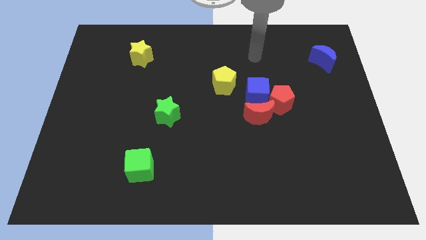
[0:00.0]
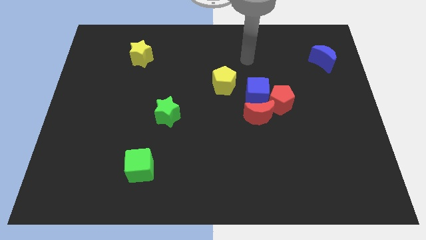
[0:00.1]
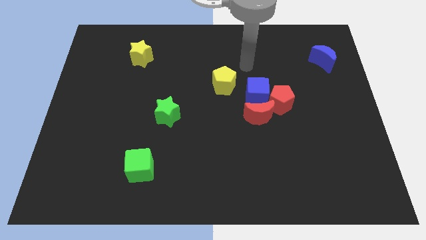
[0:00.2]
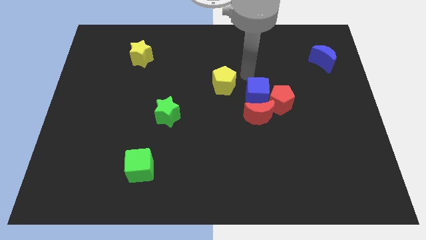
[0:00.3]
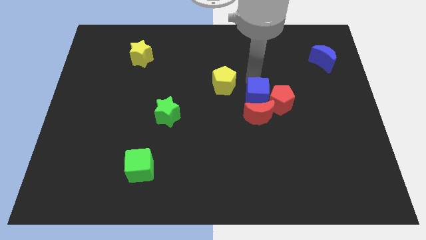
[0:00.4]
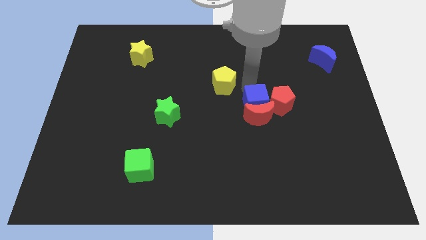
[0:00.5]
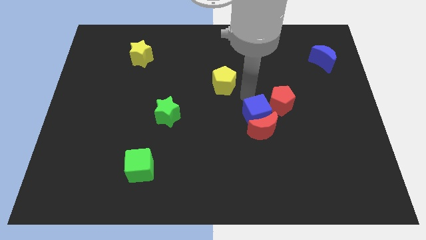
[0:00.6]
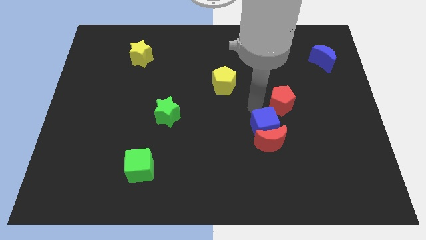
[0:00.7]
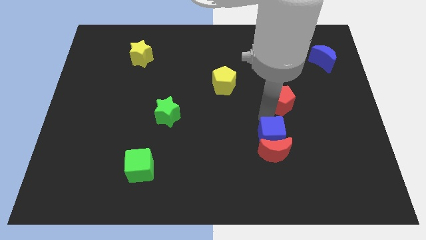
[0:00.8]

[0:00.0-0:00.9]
pull the red pentagon apart from the blue cube and red moon

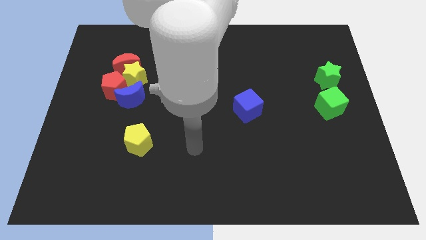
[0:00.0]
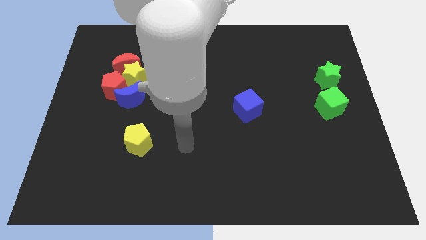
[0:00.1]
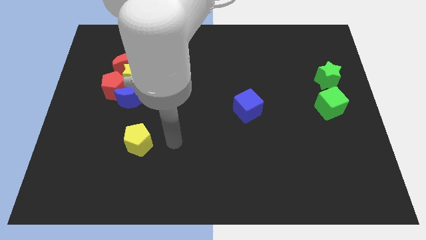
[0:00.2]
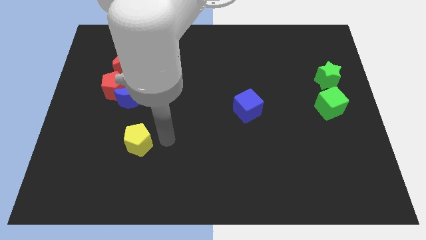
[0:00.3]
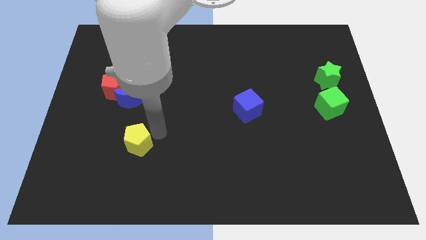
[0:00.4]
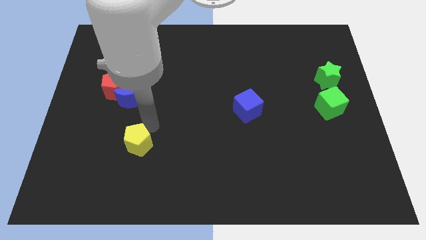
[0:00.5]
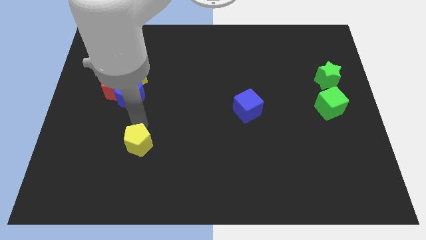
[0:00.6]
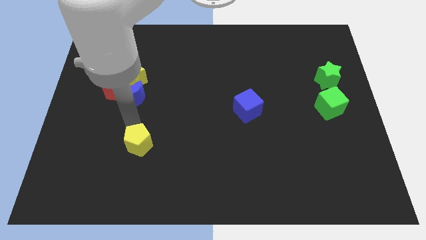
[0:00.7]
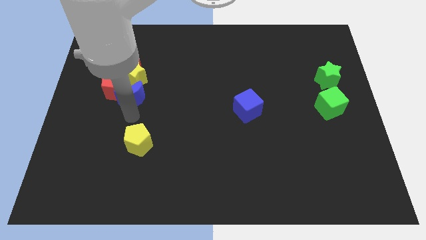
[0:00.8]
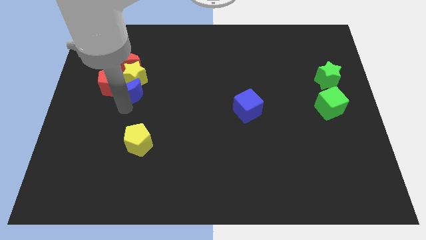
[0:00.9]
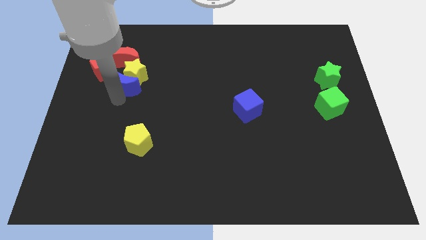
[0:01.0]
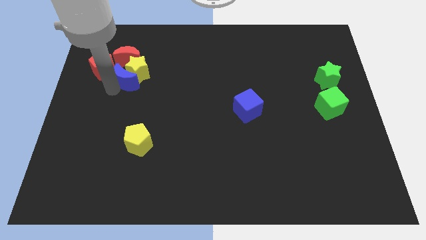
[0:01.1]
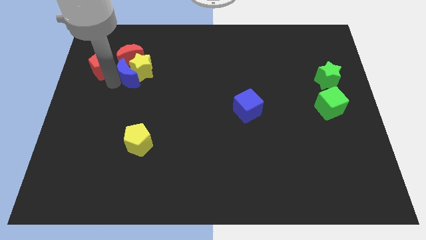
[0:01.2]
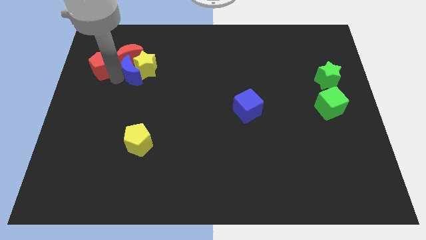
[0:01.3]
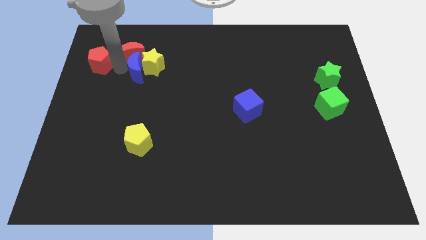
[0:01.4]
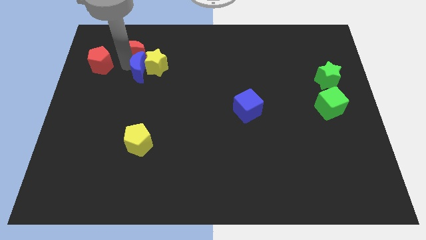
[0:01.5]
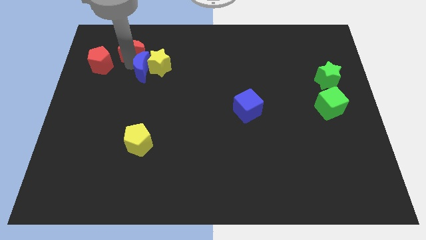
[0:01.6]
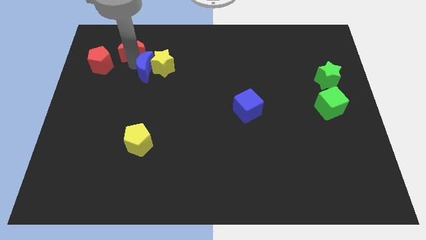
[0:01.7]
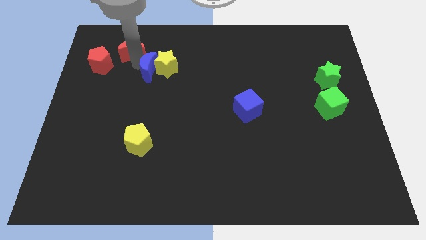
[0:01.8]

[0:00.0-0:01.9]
pull the yellow star apart from the red moon, red pentagon, and blue moon

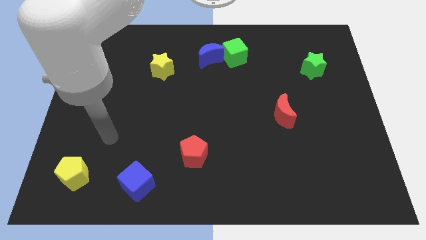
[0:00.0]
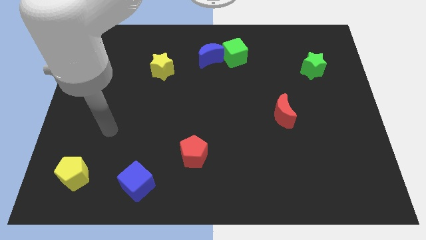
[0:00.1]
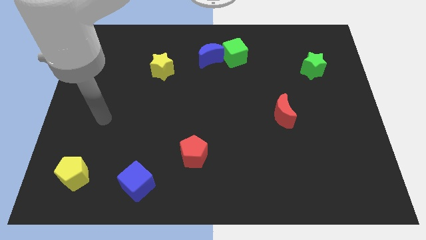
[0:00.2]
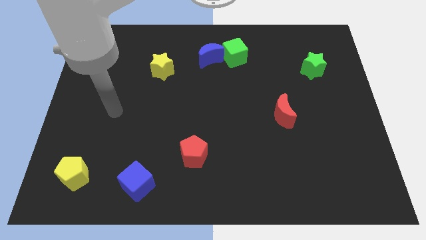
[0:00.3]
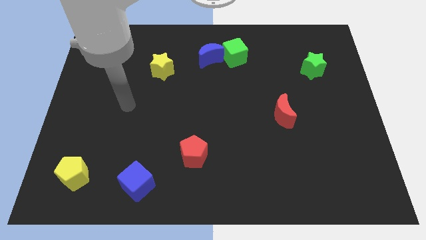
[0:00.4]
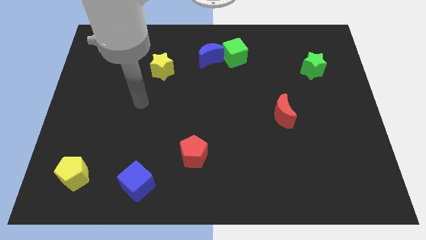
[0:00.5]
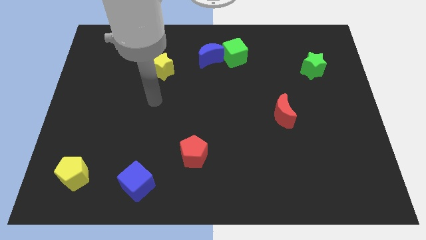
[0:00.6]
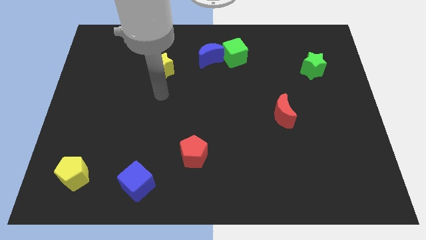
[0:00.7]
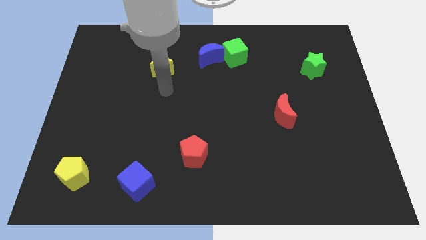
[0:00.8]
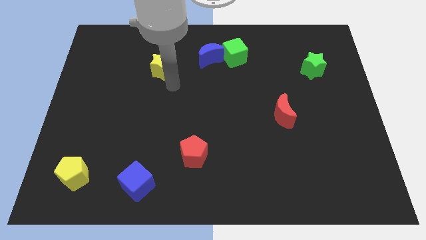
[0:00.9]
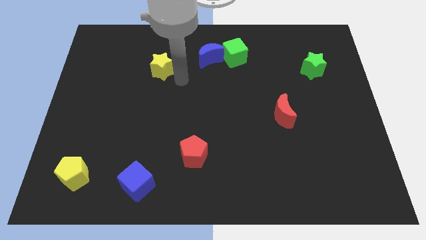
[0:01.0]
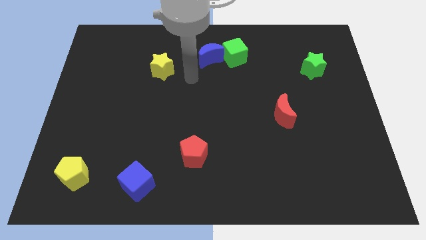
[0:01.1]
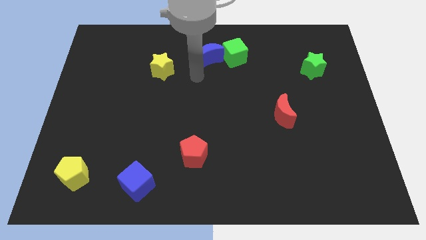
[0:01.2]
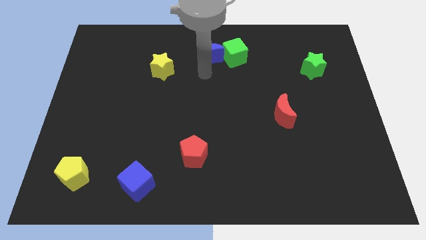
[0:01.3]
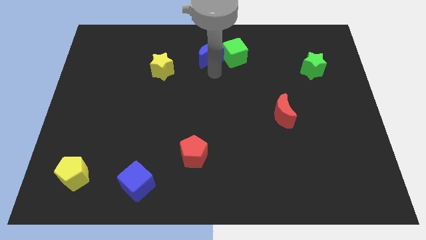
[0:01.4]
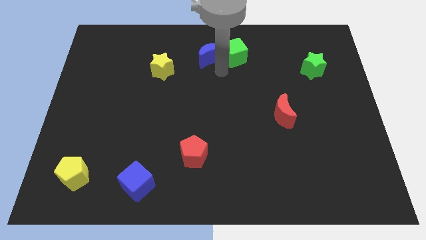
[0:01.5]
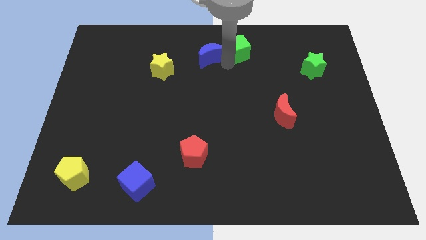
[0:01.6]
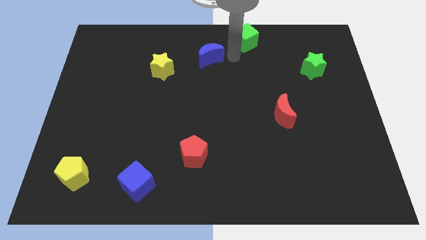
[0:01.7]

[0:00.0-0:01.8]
pull the blue moon apart from the green cube

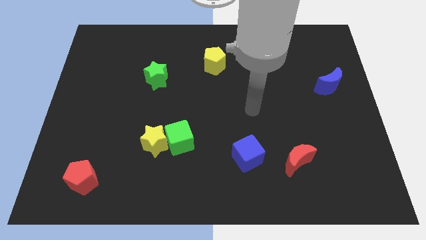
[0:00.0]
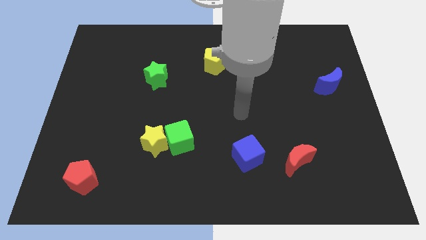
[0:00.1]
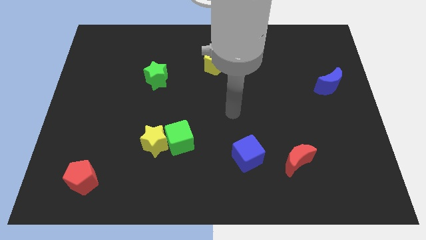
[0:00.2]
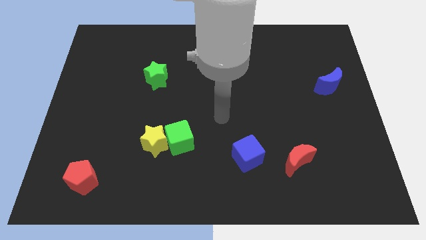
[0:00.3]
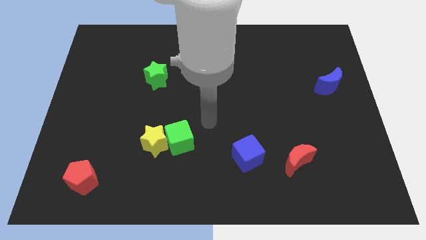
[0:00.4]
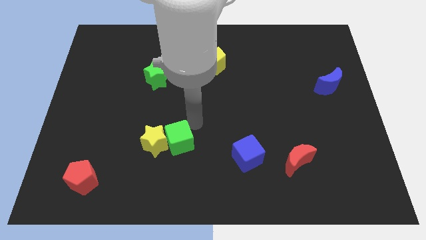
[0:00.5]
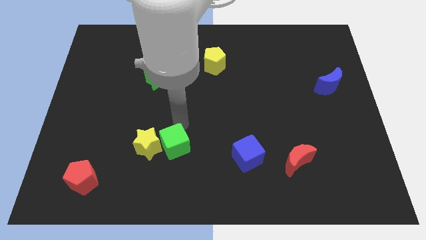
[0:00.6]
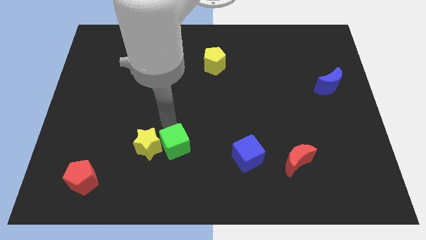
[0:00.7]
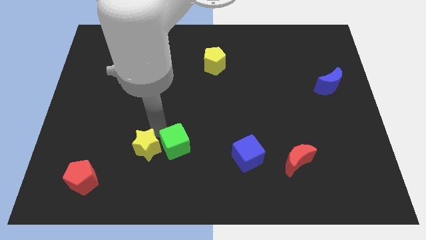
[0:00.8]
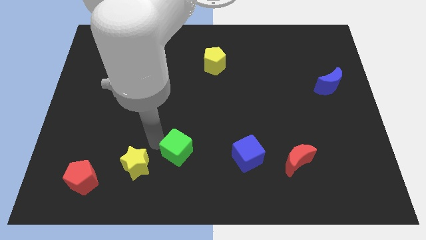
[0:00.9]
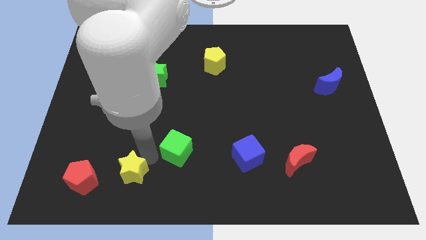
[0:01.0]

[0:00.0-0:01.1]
move the green cube away from the yellow star

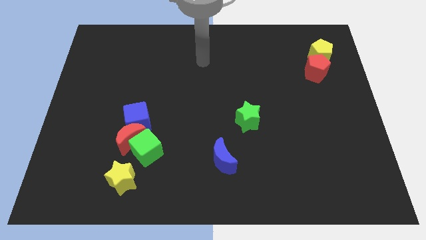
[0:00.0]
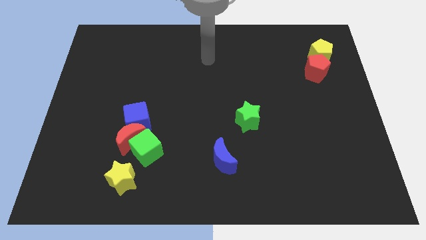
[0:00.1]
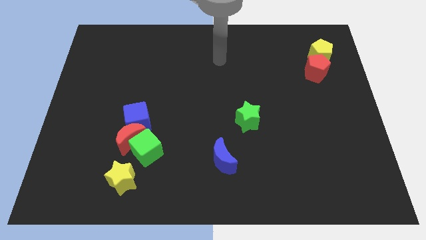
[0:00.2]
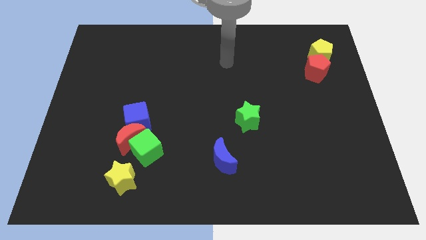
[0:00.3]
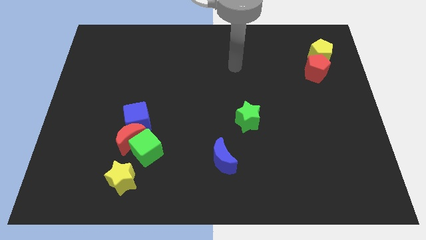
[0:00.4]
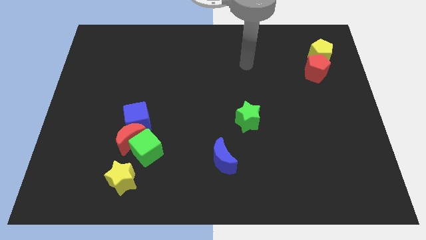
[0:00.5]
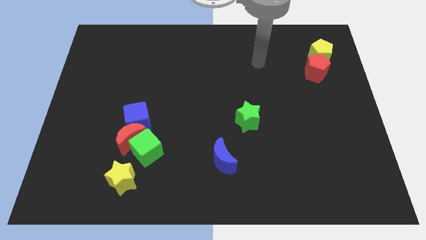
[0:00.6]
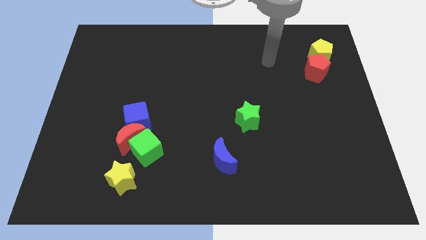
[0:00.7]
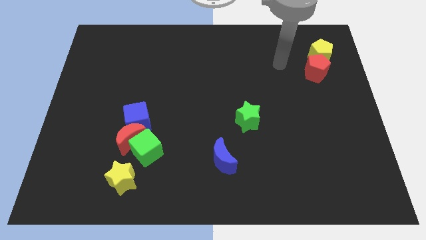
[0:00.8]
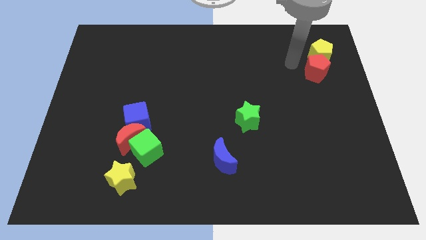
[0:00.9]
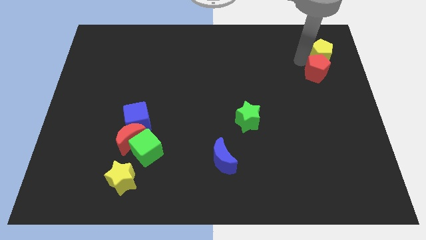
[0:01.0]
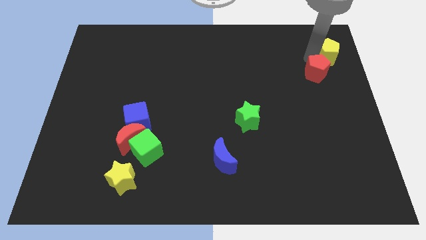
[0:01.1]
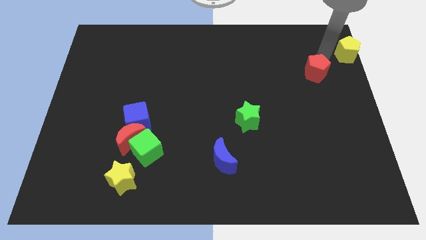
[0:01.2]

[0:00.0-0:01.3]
pull the red pentagon apart from the yellow pentagon

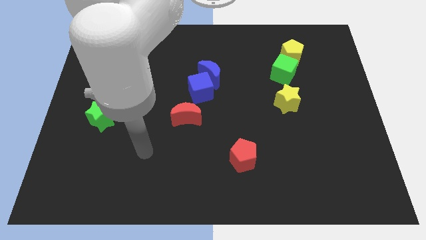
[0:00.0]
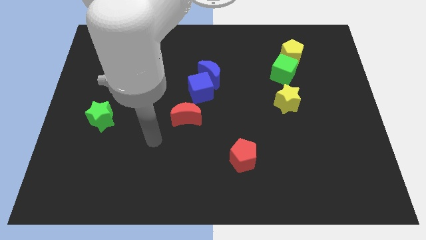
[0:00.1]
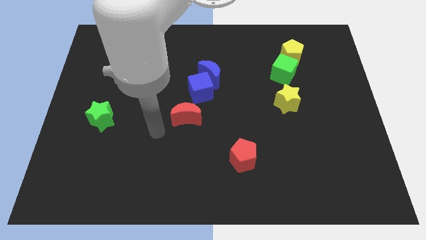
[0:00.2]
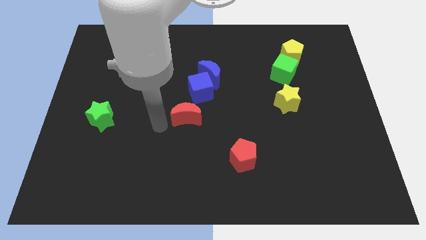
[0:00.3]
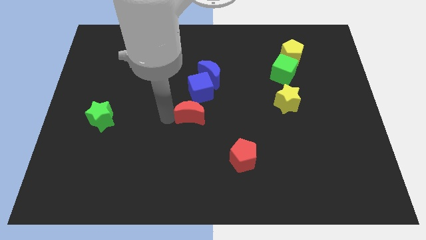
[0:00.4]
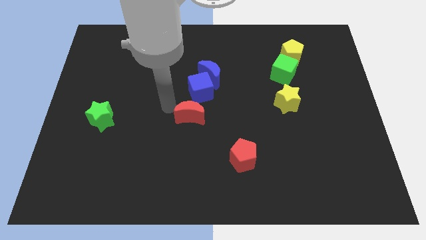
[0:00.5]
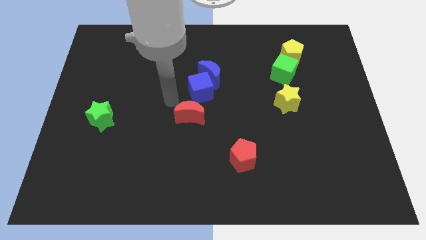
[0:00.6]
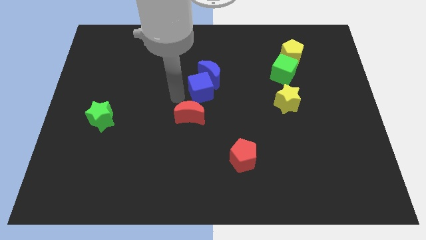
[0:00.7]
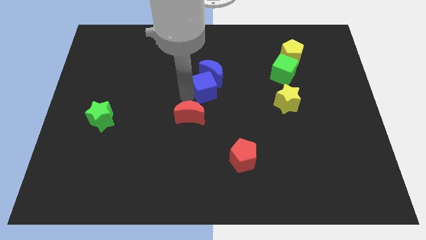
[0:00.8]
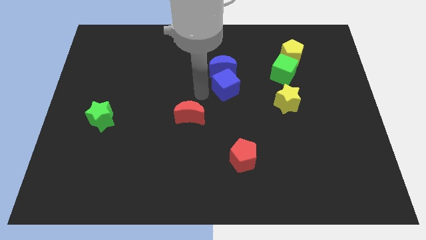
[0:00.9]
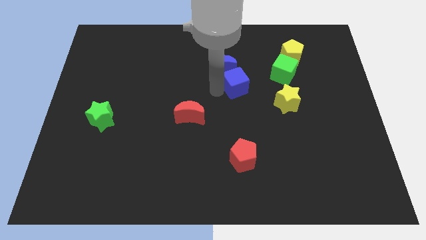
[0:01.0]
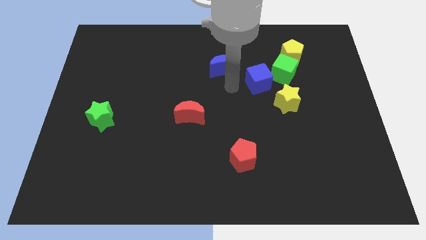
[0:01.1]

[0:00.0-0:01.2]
separate the blue moon from the blue cube

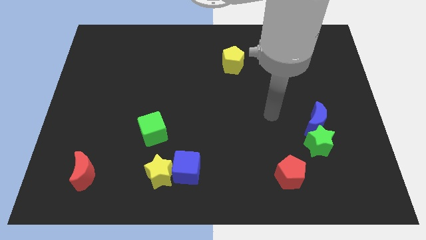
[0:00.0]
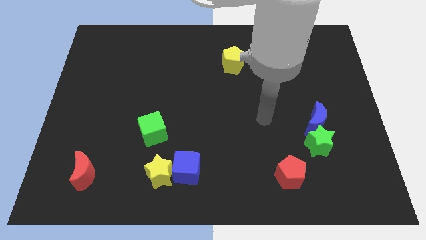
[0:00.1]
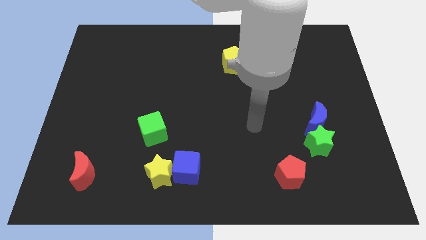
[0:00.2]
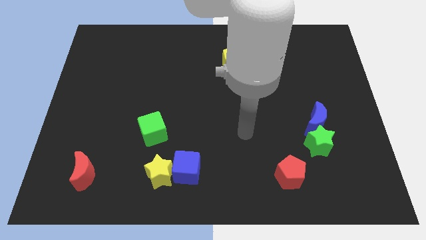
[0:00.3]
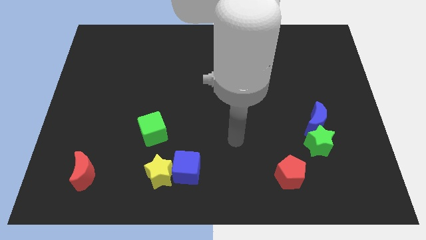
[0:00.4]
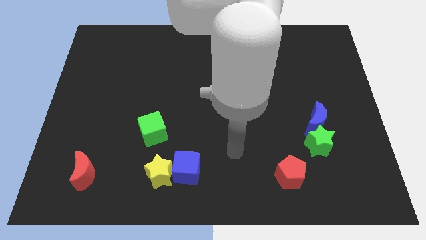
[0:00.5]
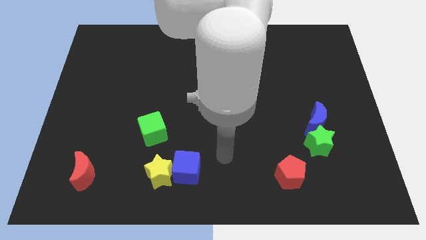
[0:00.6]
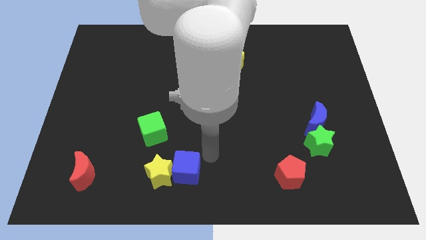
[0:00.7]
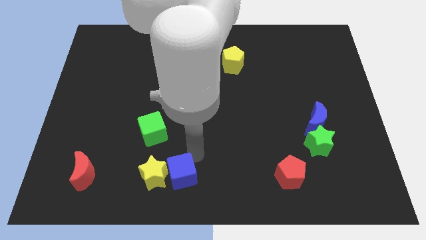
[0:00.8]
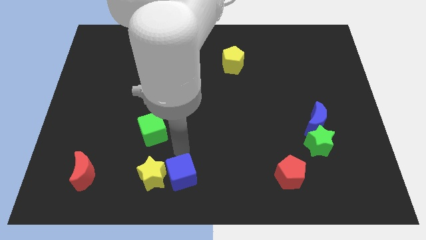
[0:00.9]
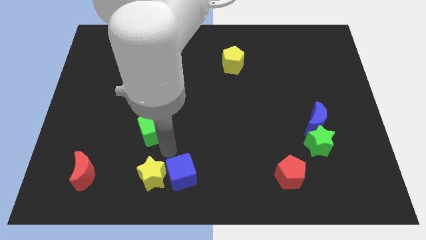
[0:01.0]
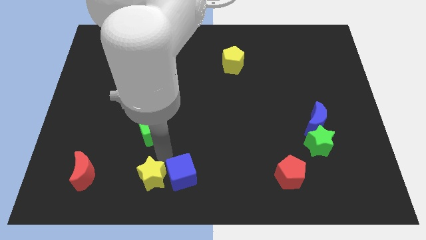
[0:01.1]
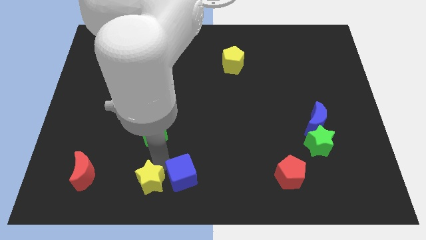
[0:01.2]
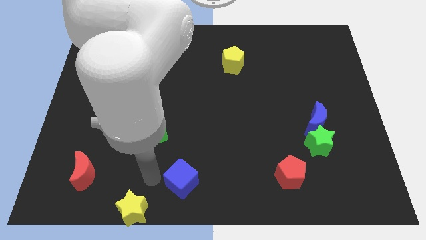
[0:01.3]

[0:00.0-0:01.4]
pull the blue cube apart from the yellow star
